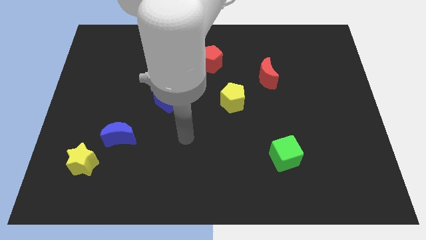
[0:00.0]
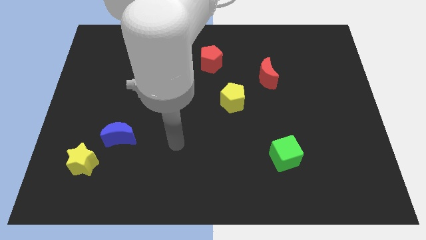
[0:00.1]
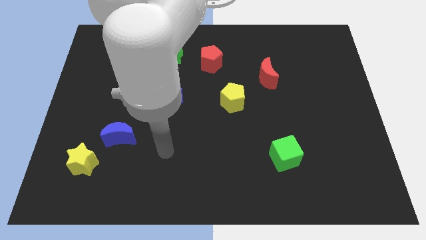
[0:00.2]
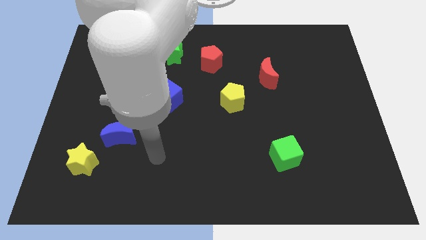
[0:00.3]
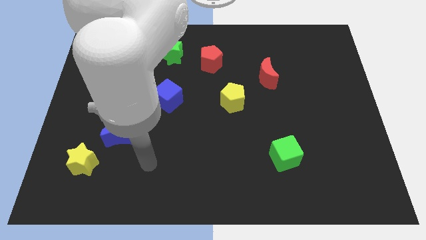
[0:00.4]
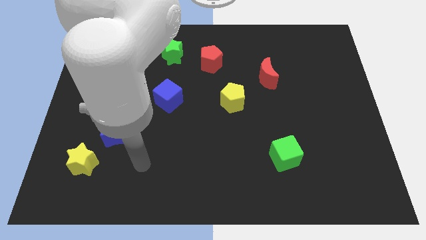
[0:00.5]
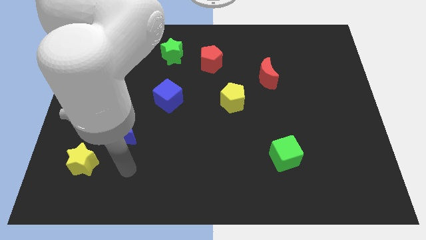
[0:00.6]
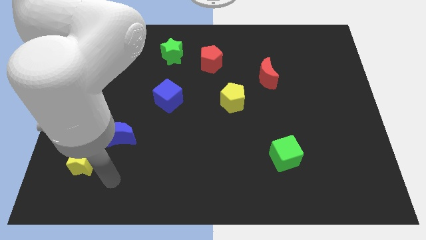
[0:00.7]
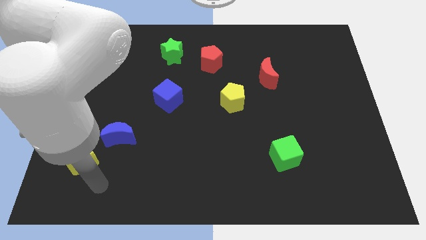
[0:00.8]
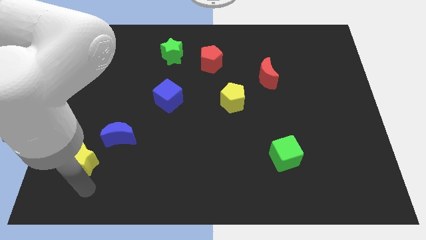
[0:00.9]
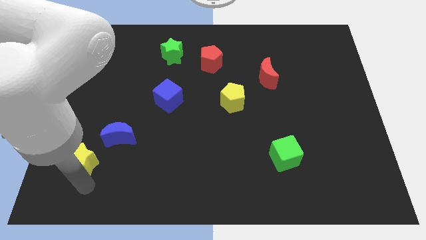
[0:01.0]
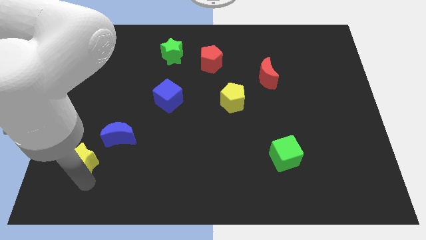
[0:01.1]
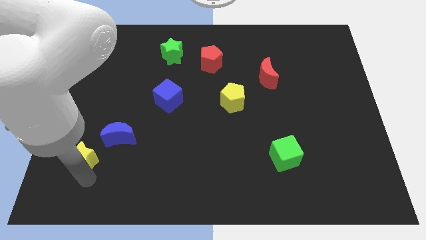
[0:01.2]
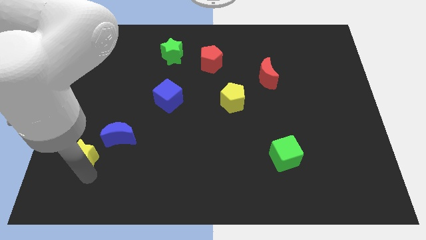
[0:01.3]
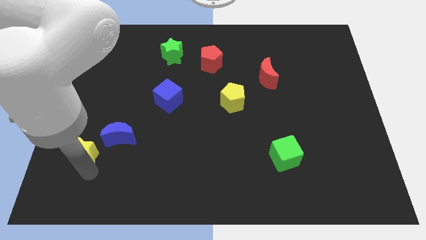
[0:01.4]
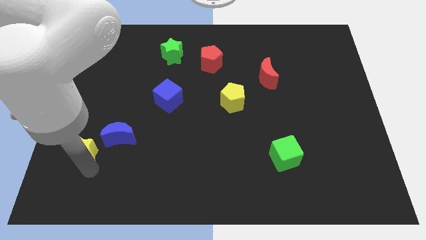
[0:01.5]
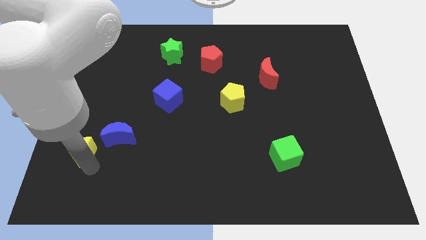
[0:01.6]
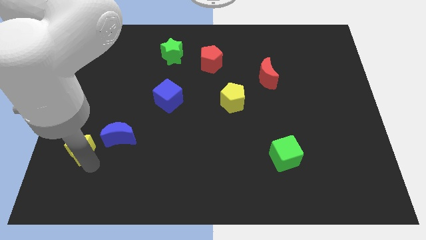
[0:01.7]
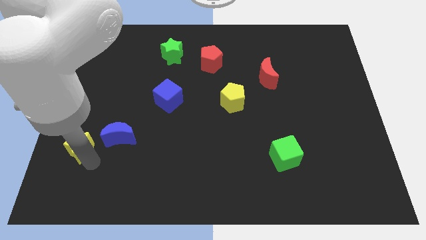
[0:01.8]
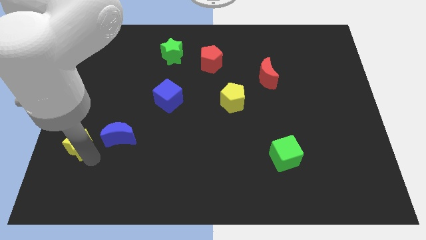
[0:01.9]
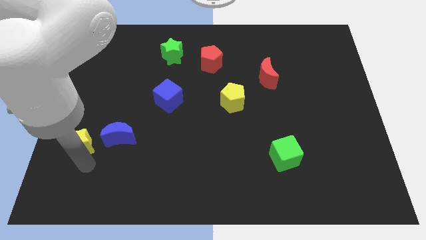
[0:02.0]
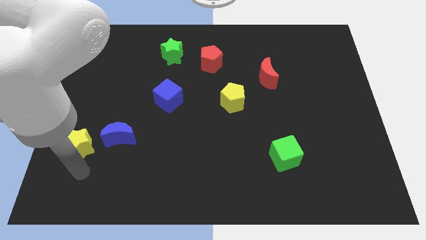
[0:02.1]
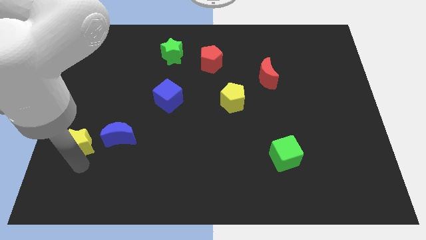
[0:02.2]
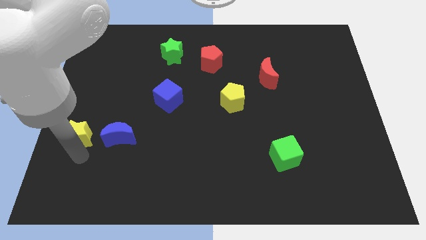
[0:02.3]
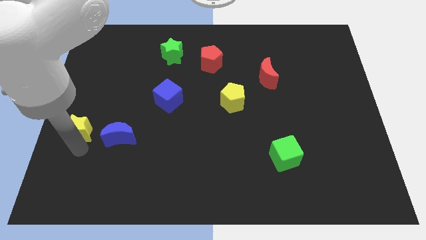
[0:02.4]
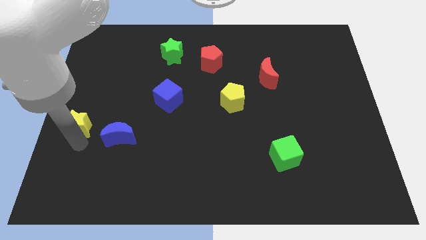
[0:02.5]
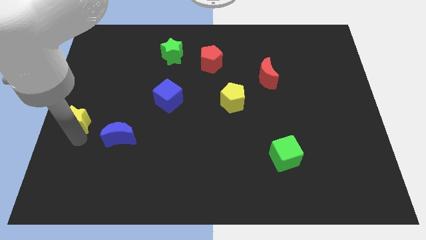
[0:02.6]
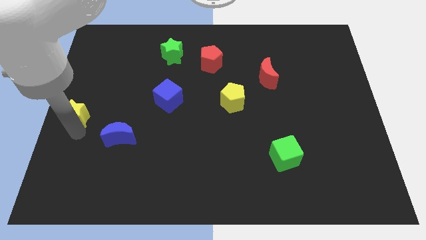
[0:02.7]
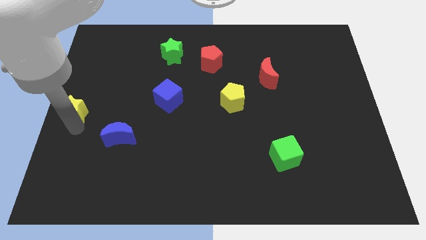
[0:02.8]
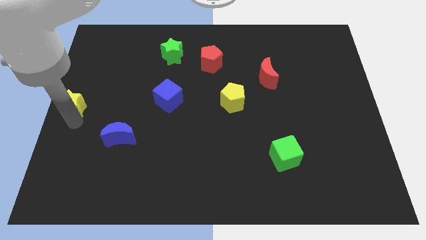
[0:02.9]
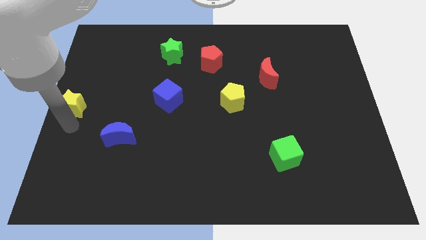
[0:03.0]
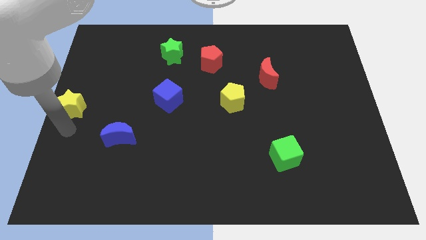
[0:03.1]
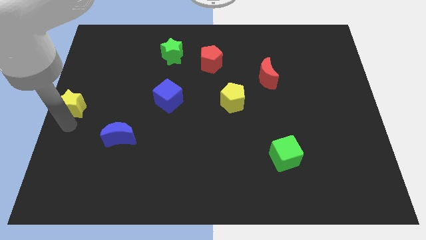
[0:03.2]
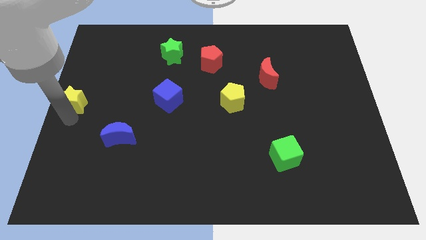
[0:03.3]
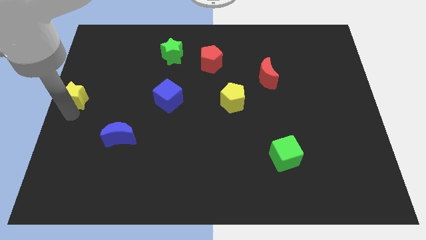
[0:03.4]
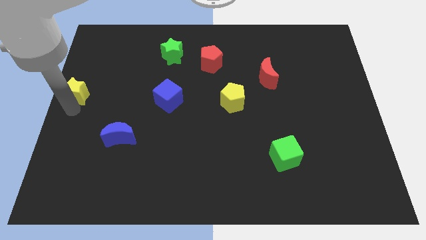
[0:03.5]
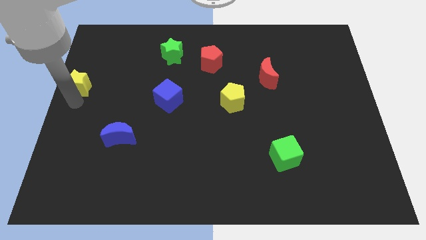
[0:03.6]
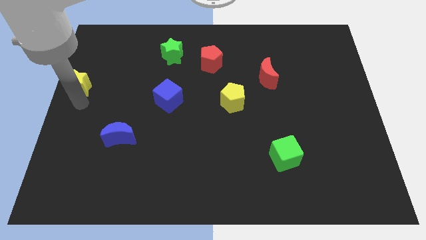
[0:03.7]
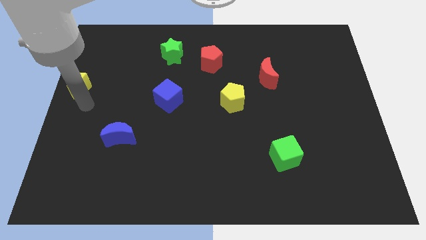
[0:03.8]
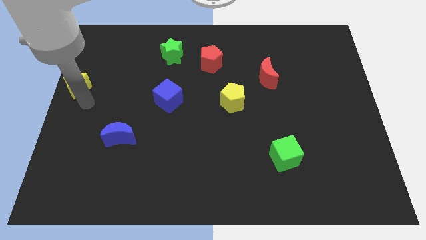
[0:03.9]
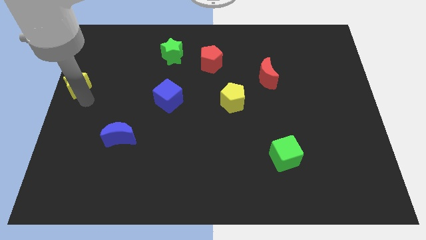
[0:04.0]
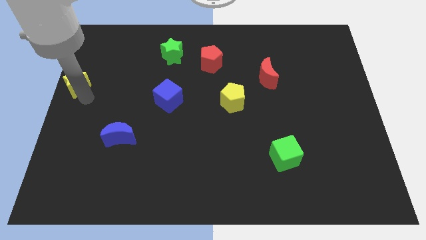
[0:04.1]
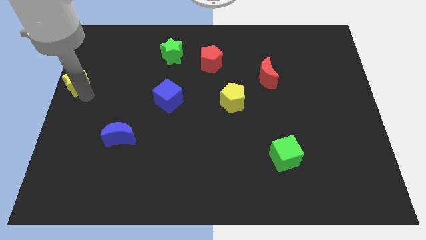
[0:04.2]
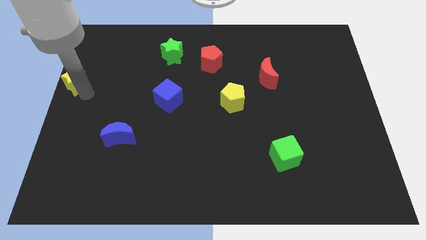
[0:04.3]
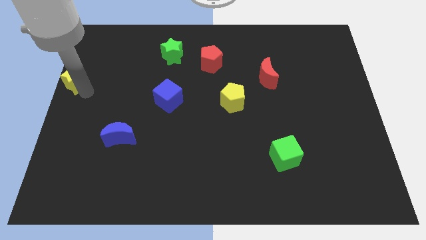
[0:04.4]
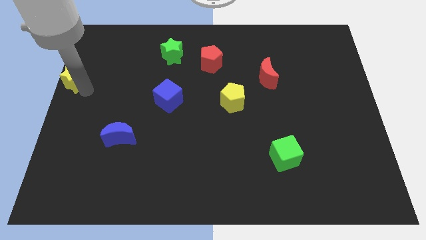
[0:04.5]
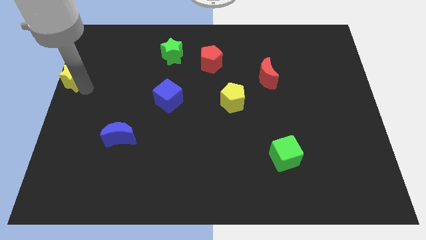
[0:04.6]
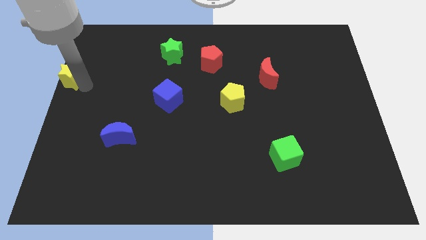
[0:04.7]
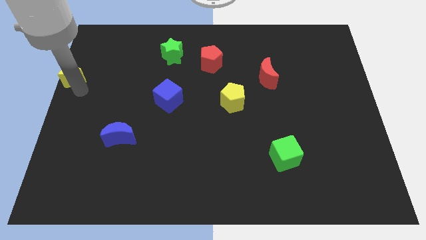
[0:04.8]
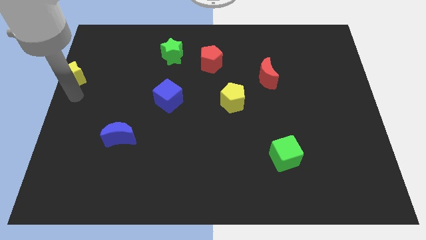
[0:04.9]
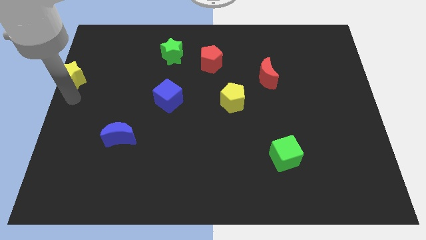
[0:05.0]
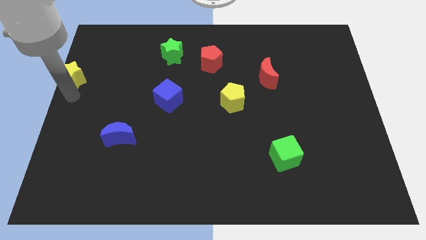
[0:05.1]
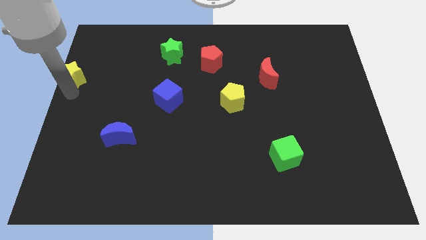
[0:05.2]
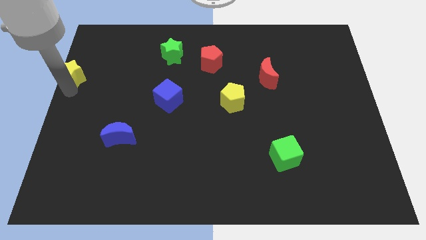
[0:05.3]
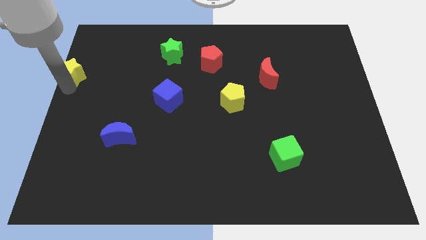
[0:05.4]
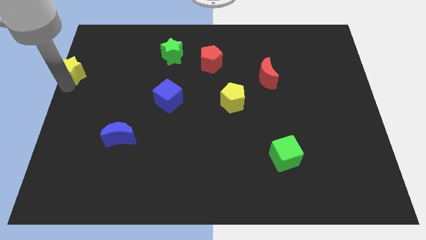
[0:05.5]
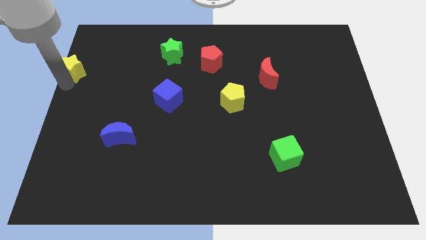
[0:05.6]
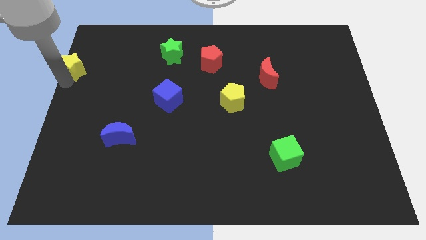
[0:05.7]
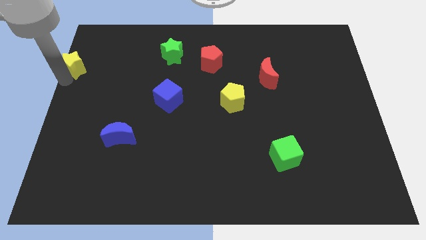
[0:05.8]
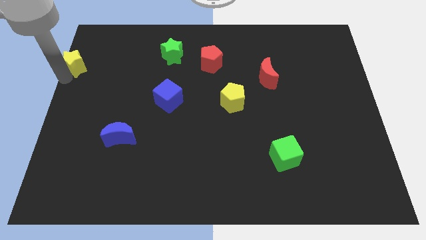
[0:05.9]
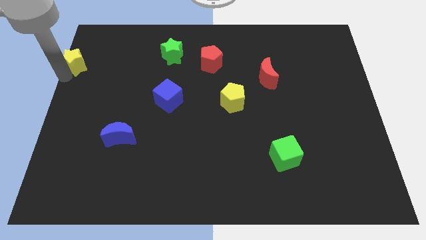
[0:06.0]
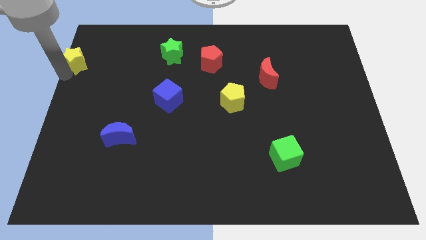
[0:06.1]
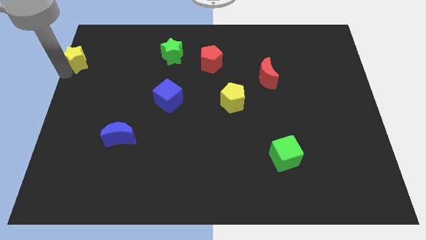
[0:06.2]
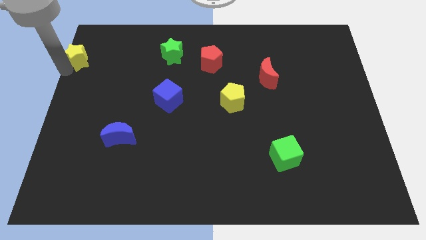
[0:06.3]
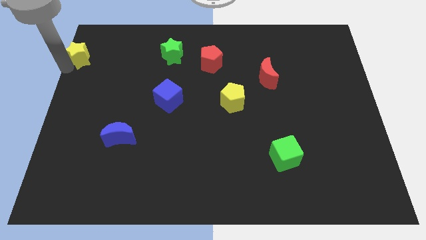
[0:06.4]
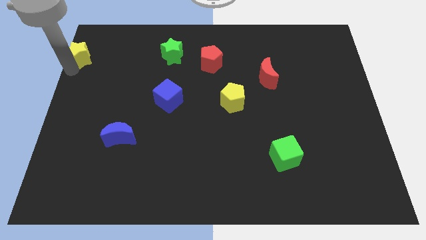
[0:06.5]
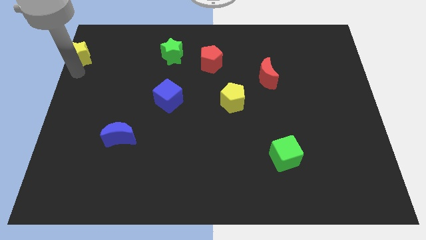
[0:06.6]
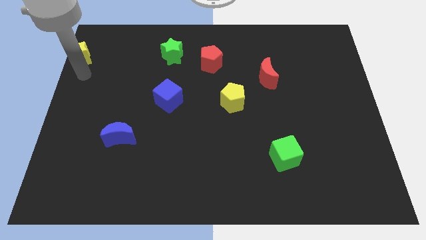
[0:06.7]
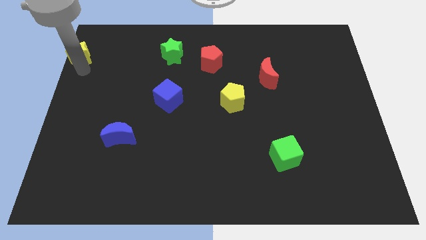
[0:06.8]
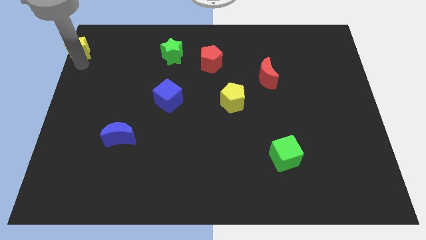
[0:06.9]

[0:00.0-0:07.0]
put the yellow star to the top left
